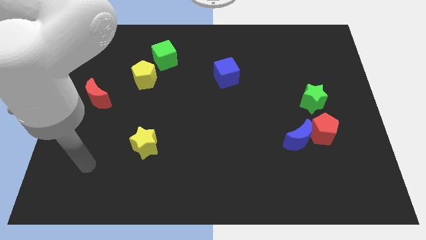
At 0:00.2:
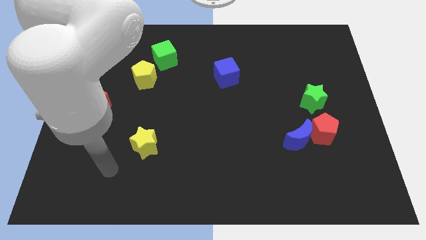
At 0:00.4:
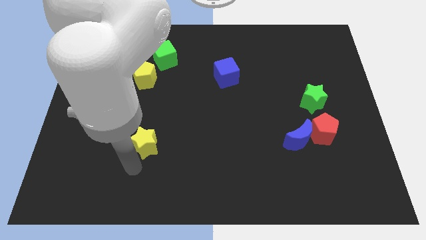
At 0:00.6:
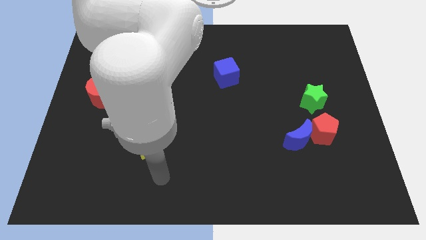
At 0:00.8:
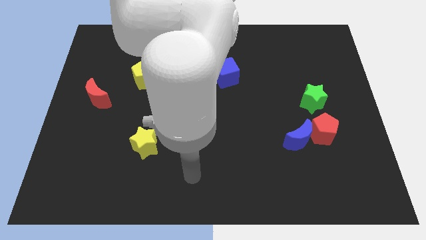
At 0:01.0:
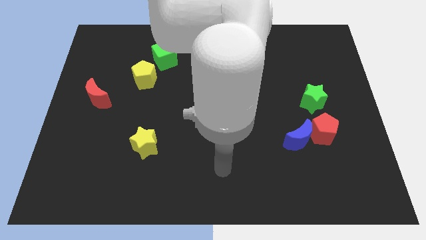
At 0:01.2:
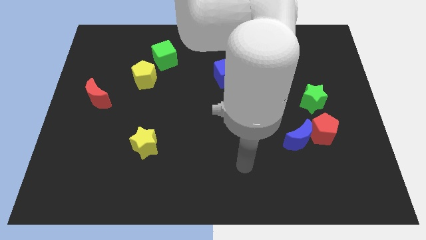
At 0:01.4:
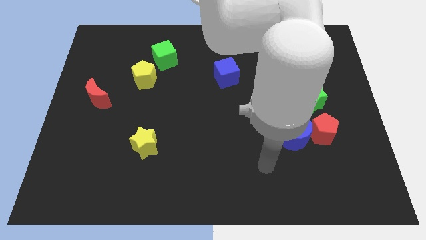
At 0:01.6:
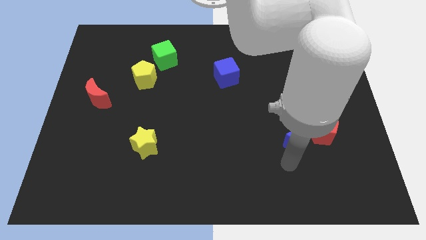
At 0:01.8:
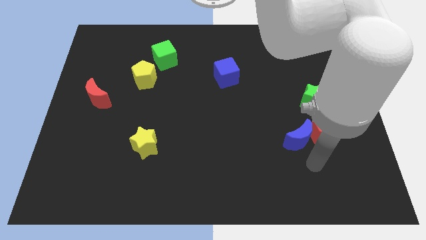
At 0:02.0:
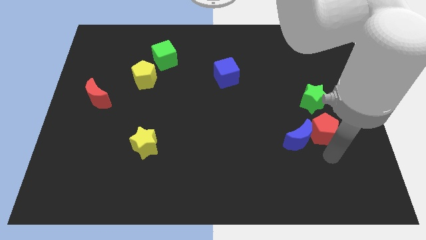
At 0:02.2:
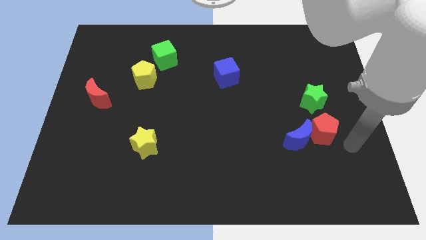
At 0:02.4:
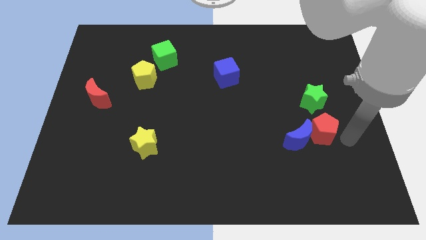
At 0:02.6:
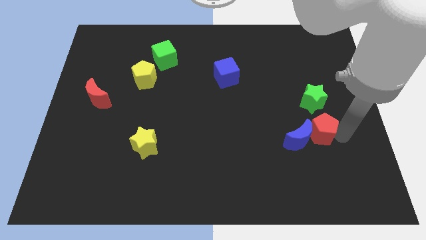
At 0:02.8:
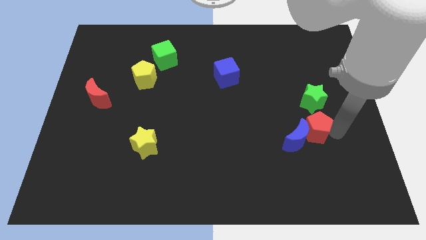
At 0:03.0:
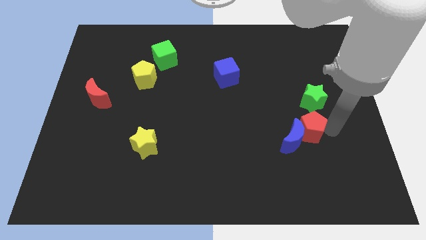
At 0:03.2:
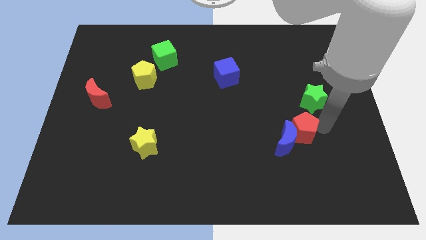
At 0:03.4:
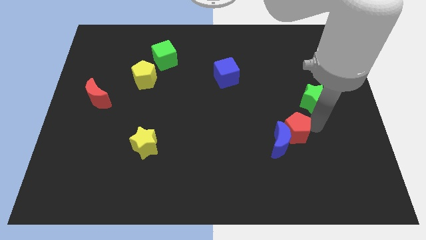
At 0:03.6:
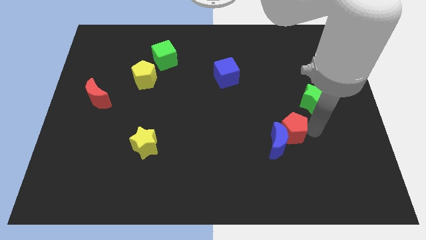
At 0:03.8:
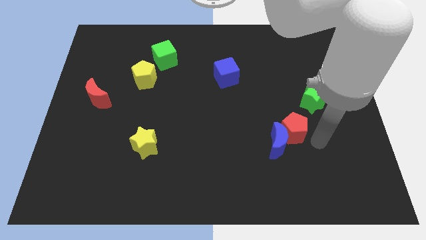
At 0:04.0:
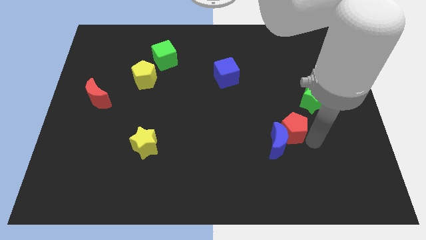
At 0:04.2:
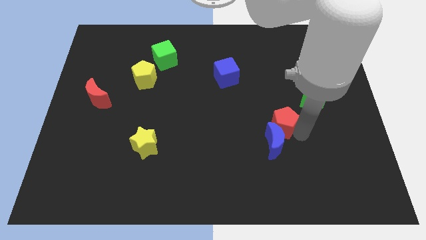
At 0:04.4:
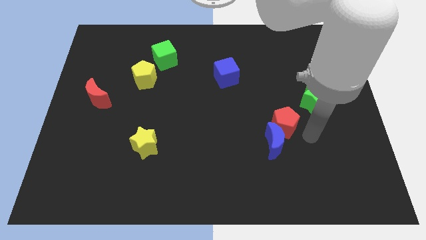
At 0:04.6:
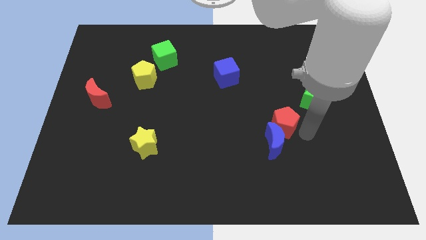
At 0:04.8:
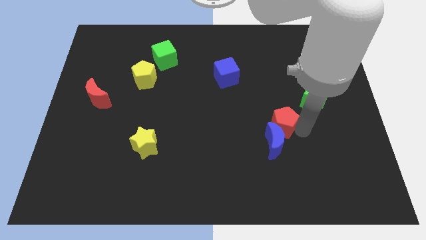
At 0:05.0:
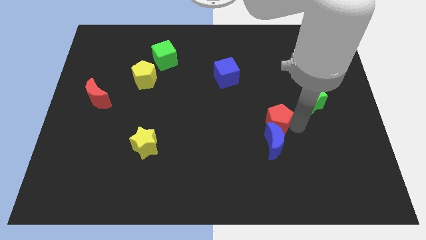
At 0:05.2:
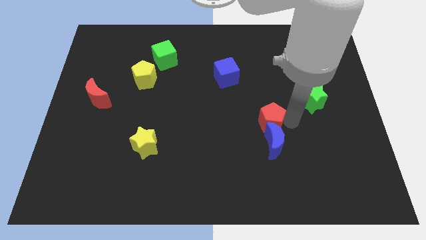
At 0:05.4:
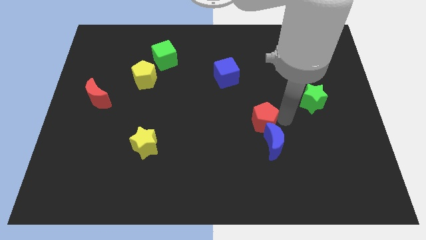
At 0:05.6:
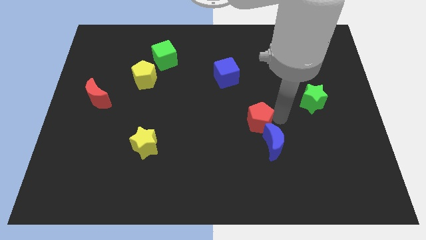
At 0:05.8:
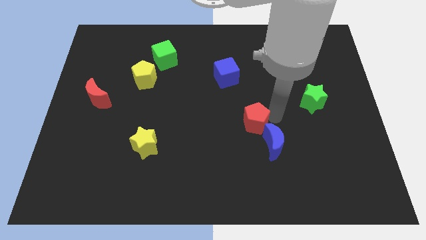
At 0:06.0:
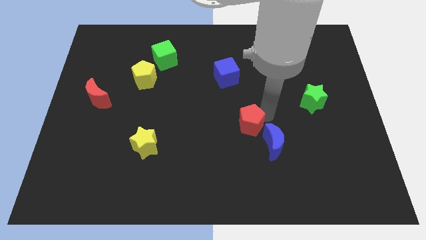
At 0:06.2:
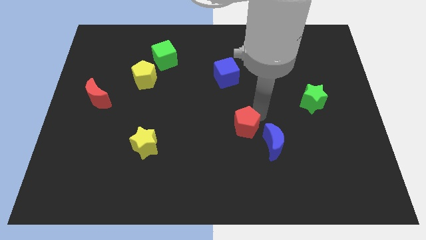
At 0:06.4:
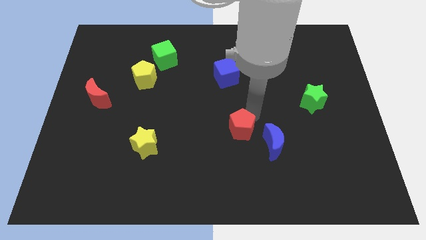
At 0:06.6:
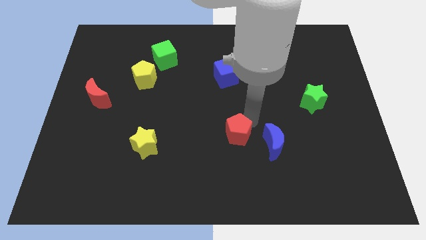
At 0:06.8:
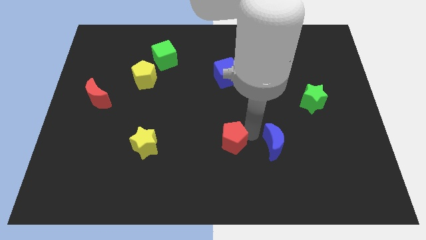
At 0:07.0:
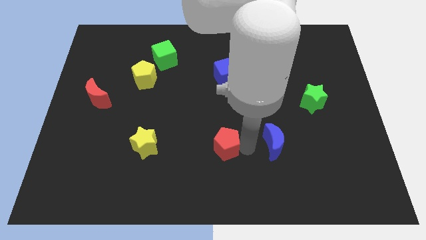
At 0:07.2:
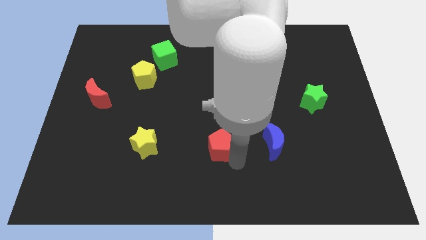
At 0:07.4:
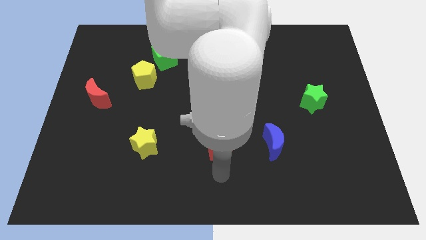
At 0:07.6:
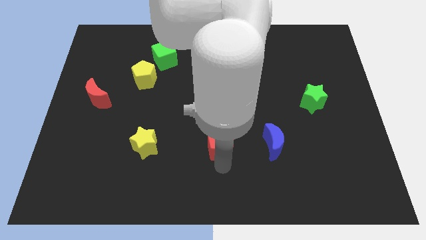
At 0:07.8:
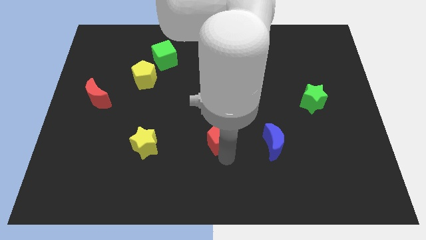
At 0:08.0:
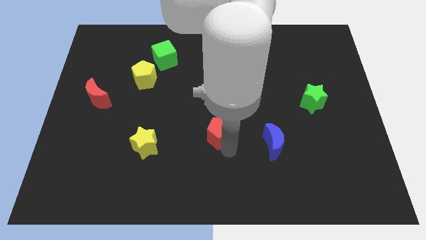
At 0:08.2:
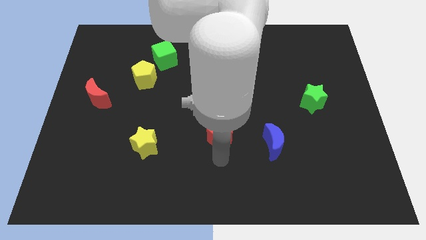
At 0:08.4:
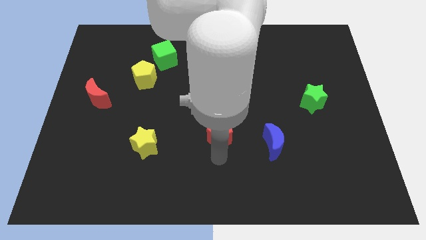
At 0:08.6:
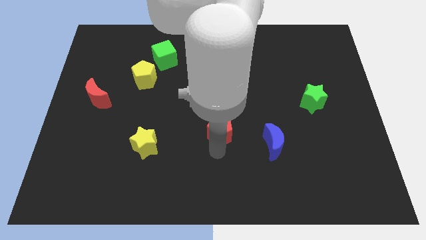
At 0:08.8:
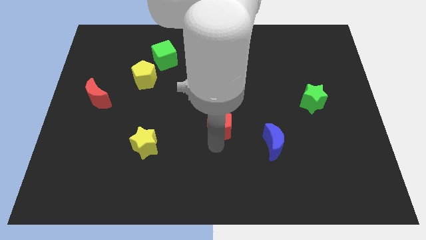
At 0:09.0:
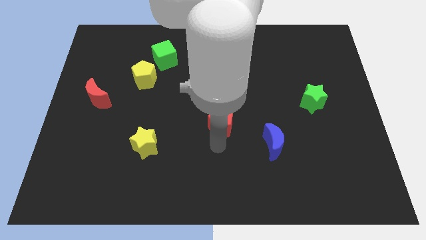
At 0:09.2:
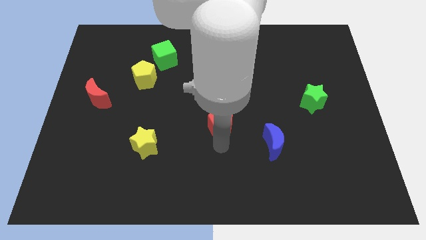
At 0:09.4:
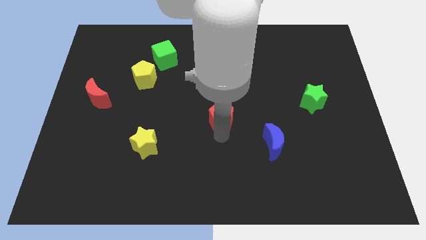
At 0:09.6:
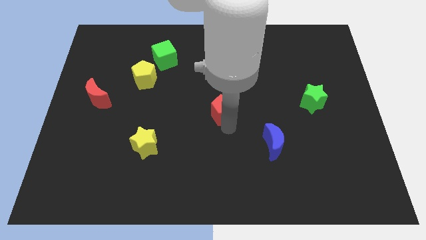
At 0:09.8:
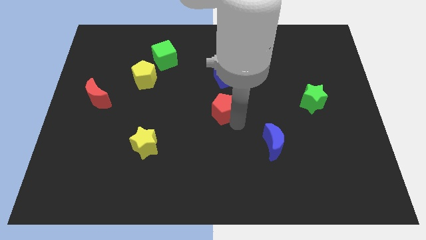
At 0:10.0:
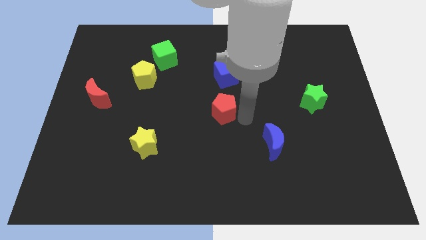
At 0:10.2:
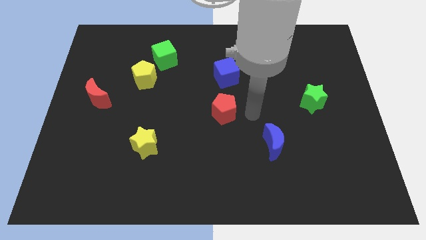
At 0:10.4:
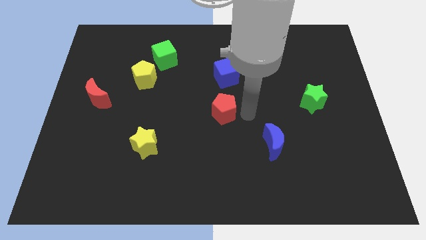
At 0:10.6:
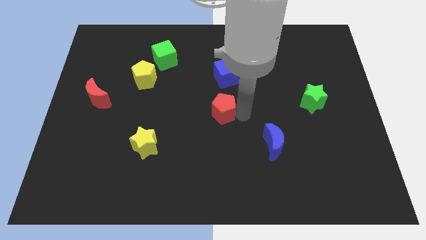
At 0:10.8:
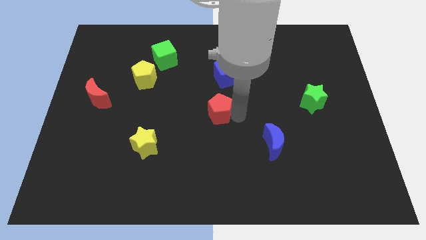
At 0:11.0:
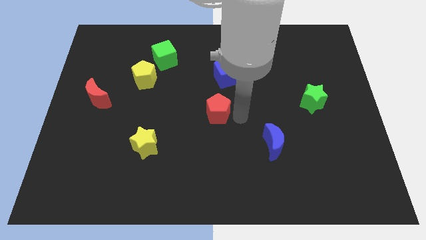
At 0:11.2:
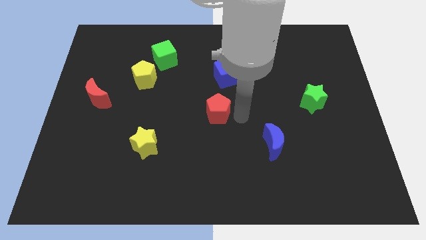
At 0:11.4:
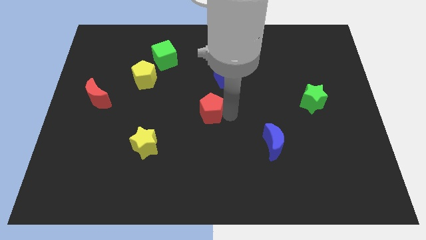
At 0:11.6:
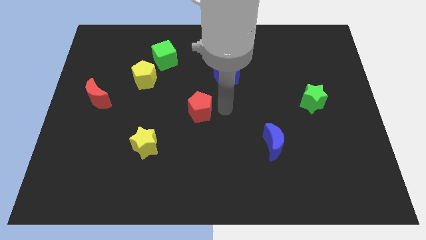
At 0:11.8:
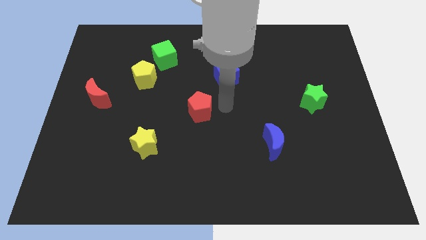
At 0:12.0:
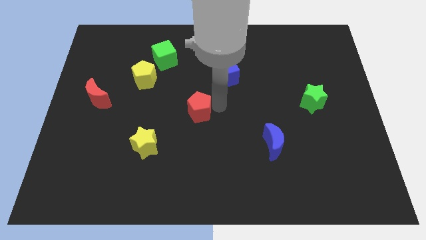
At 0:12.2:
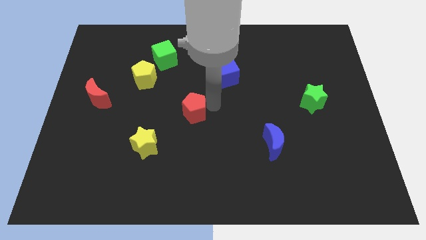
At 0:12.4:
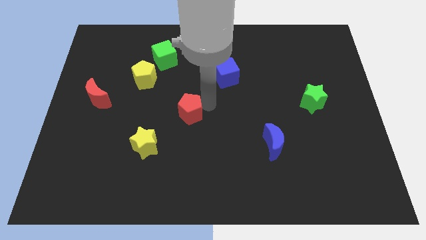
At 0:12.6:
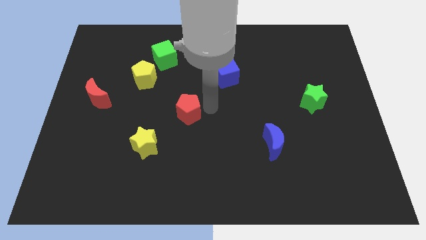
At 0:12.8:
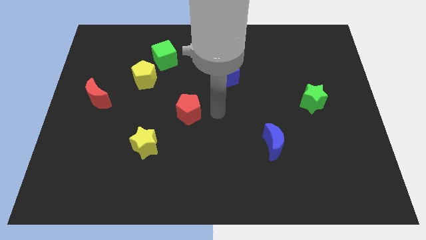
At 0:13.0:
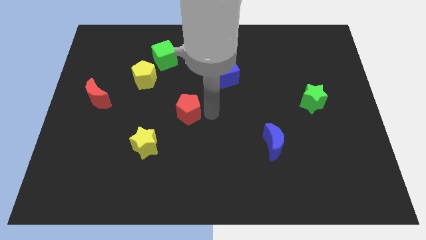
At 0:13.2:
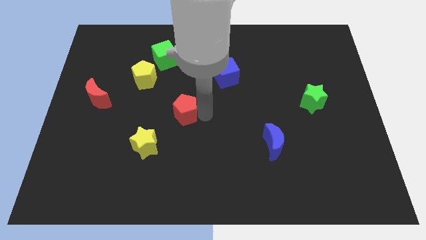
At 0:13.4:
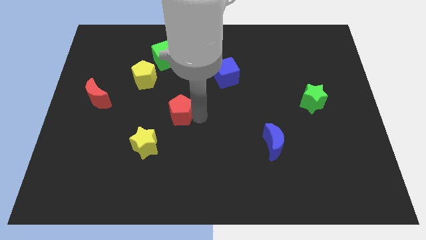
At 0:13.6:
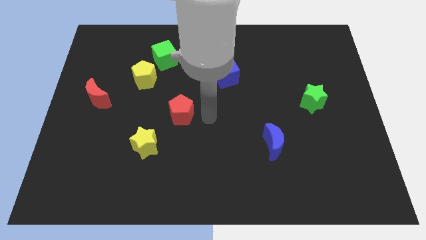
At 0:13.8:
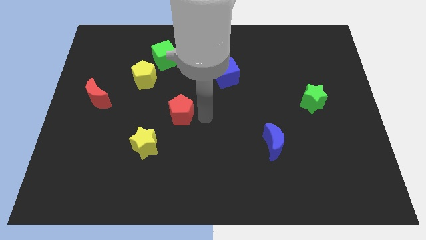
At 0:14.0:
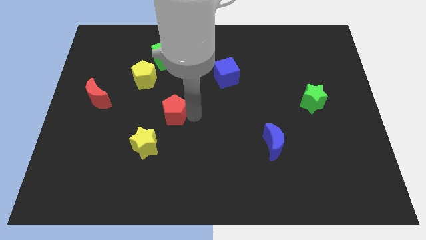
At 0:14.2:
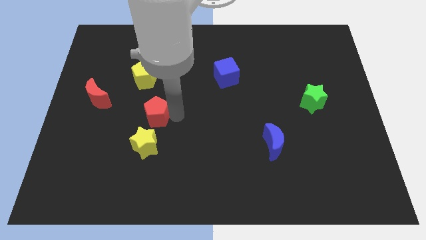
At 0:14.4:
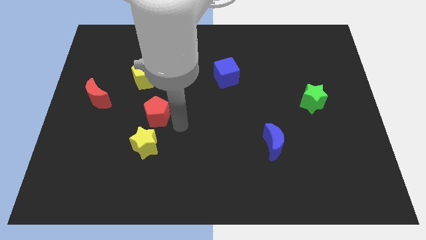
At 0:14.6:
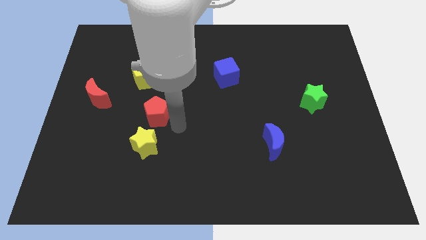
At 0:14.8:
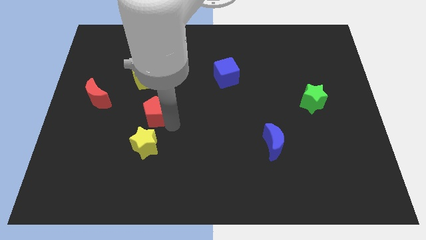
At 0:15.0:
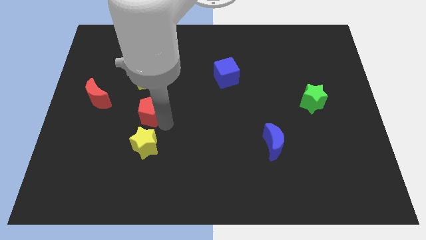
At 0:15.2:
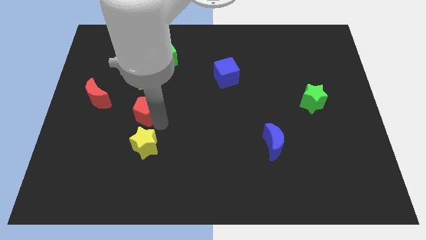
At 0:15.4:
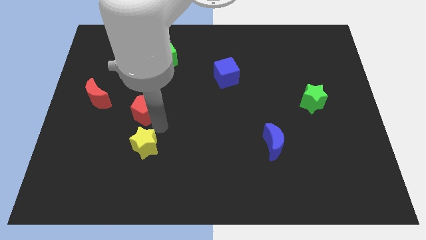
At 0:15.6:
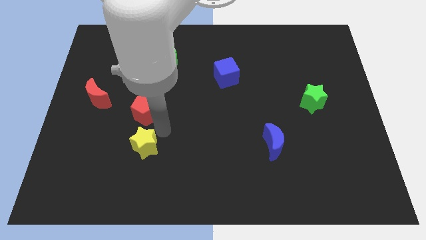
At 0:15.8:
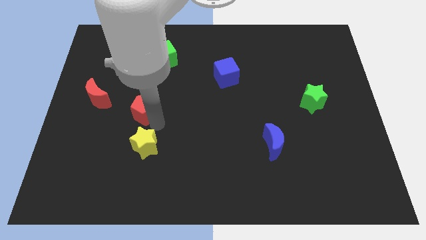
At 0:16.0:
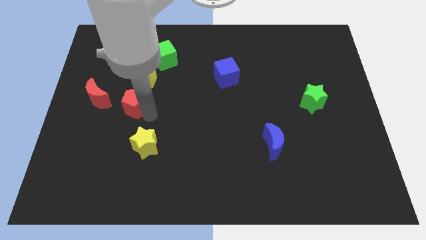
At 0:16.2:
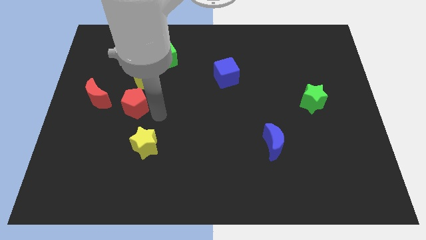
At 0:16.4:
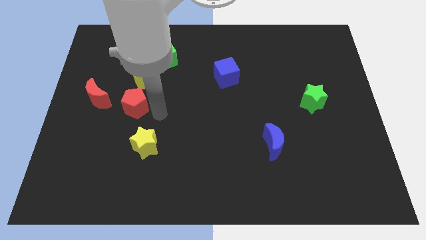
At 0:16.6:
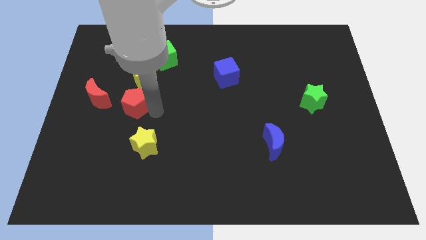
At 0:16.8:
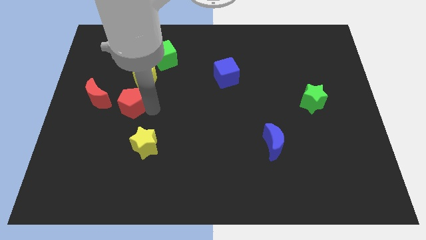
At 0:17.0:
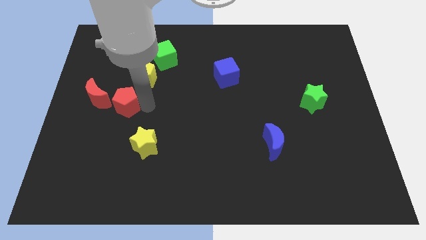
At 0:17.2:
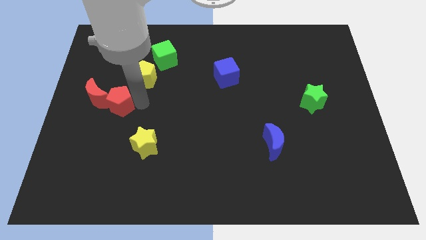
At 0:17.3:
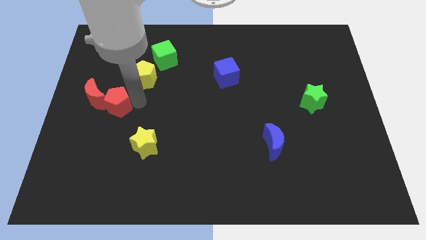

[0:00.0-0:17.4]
slide the red pentagon towards the red moon
